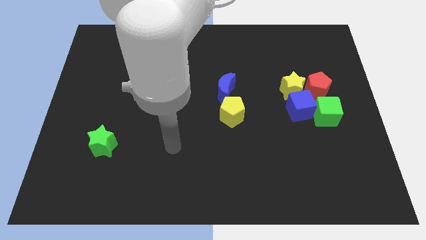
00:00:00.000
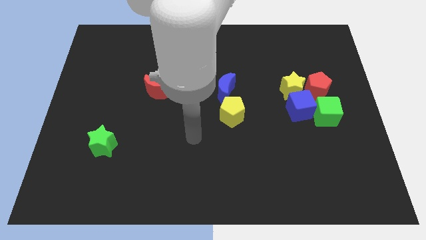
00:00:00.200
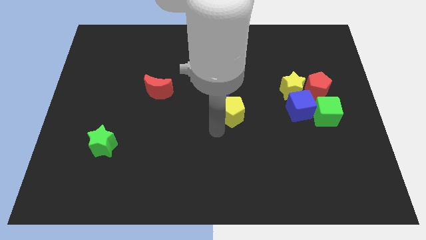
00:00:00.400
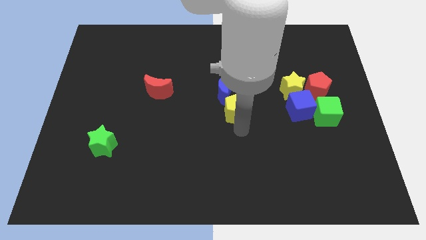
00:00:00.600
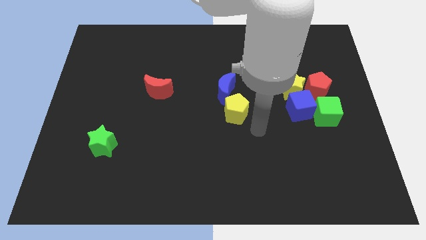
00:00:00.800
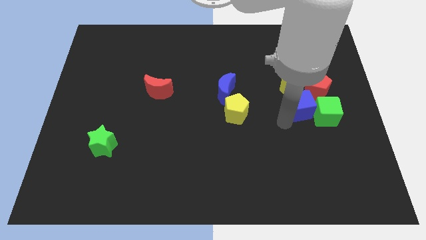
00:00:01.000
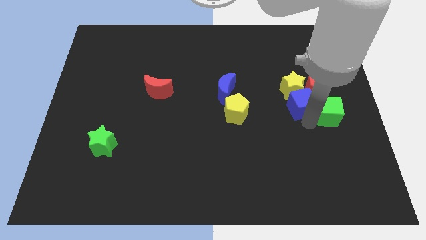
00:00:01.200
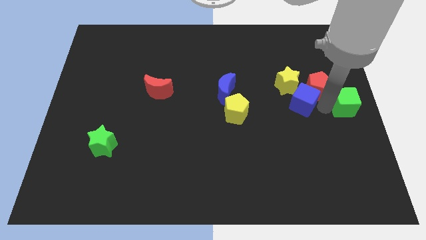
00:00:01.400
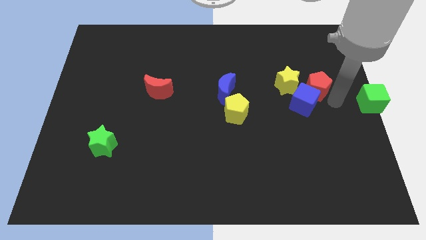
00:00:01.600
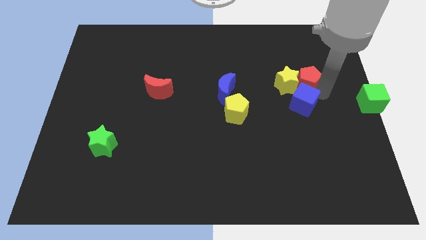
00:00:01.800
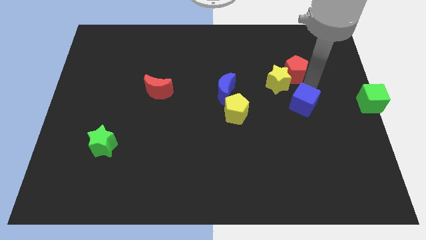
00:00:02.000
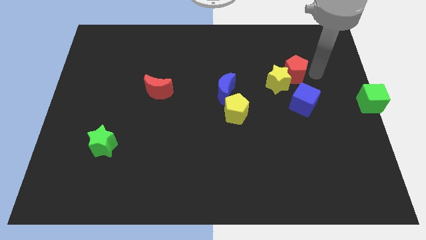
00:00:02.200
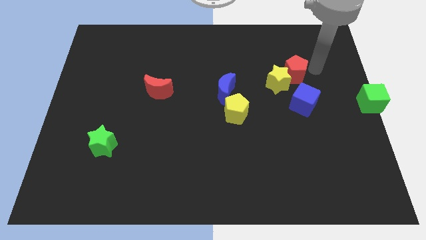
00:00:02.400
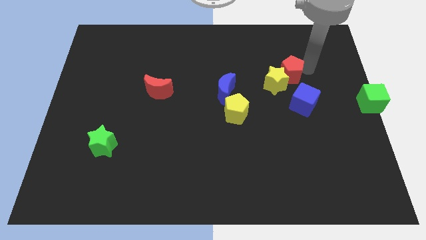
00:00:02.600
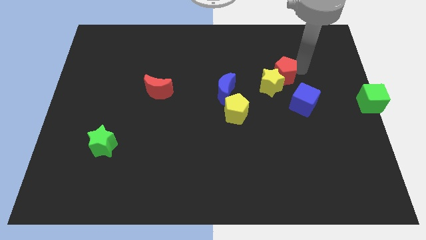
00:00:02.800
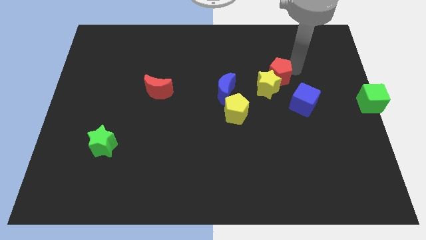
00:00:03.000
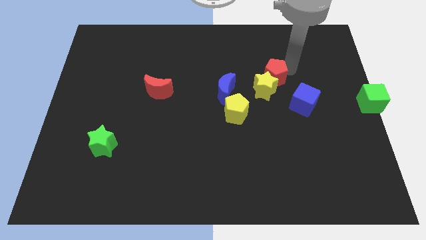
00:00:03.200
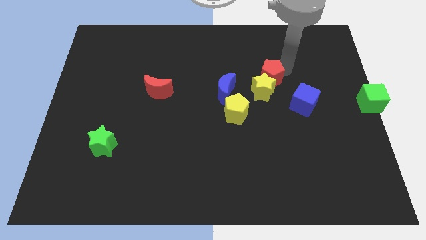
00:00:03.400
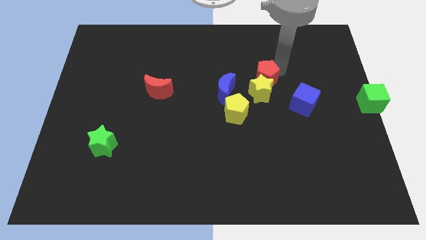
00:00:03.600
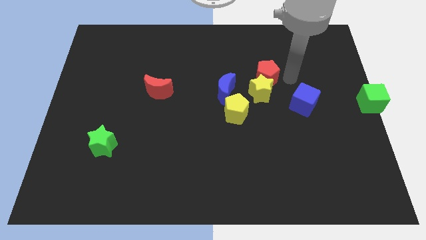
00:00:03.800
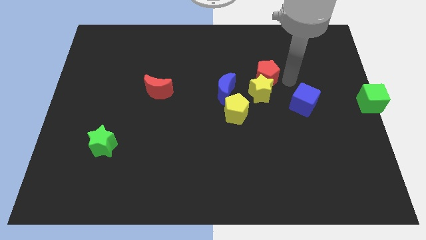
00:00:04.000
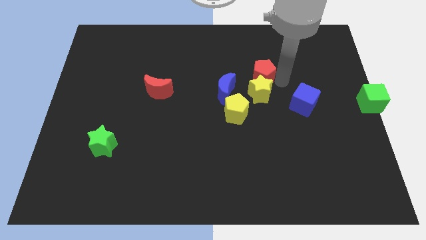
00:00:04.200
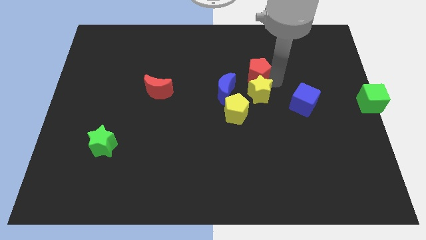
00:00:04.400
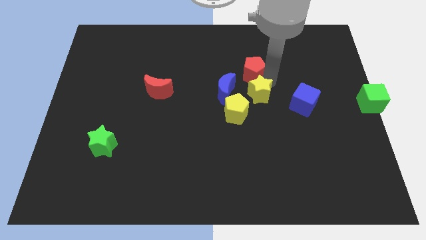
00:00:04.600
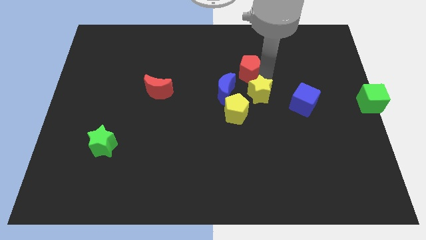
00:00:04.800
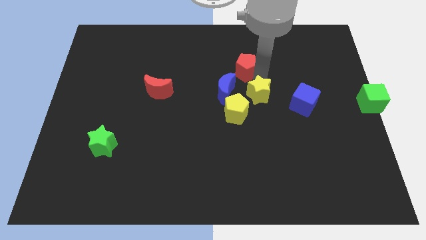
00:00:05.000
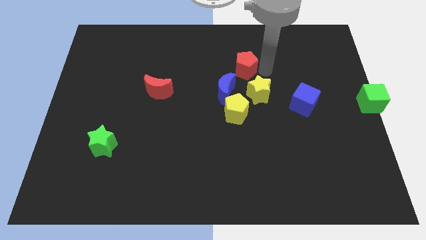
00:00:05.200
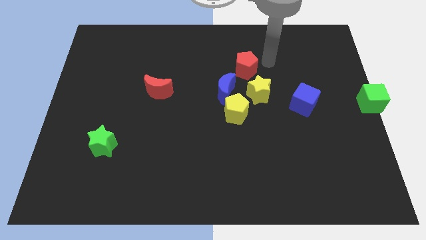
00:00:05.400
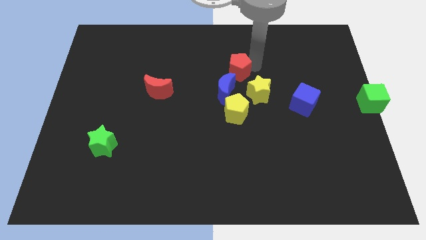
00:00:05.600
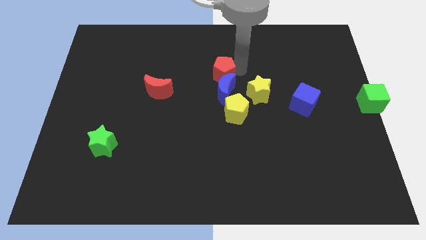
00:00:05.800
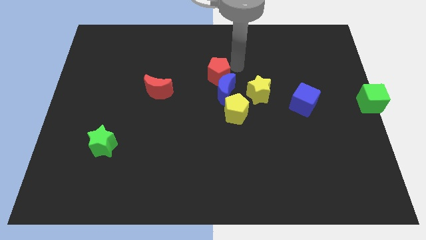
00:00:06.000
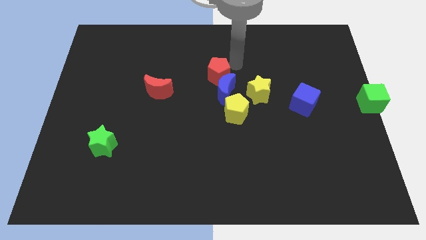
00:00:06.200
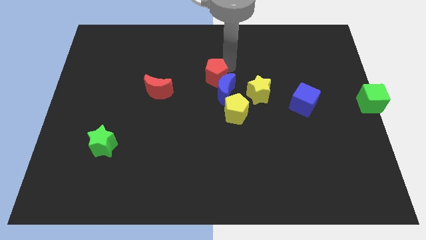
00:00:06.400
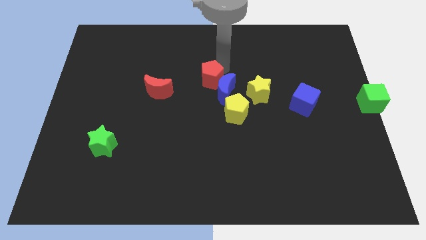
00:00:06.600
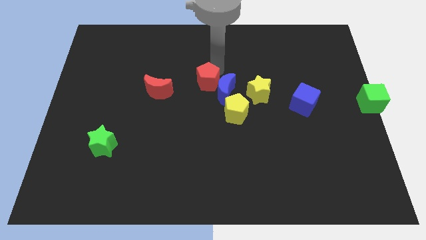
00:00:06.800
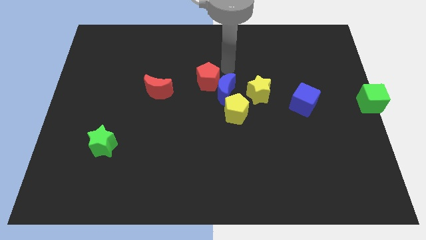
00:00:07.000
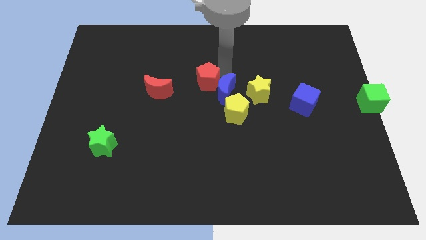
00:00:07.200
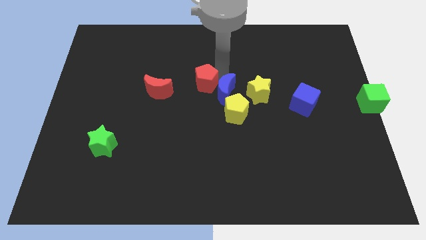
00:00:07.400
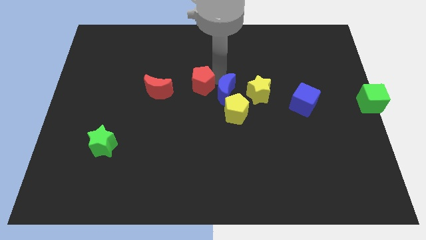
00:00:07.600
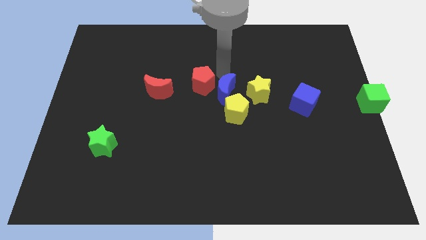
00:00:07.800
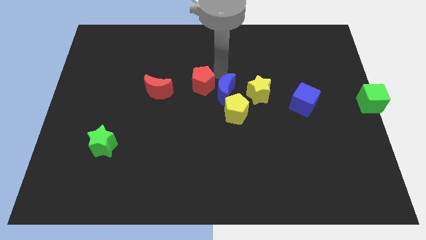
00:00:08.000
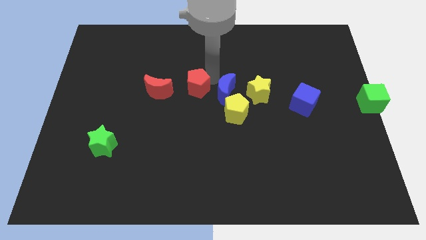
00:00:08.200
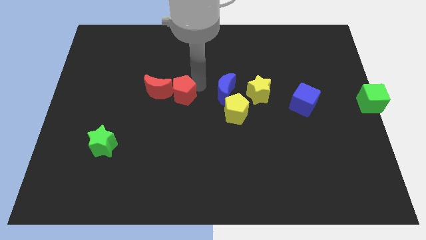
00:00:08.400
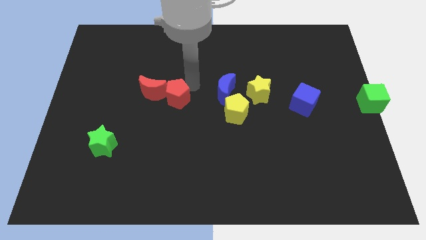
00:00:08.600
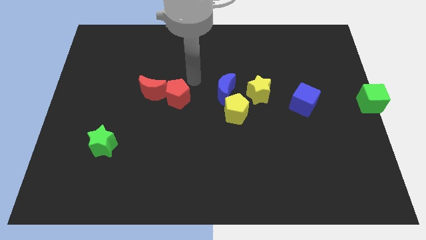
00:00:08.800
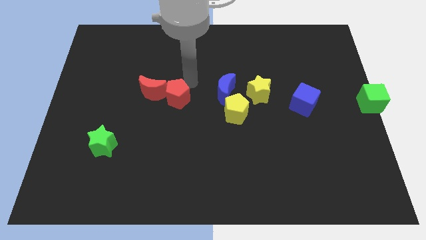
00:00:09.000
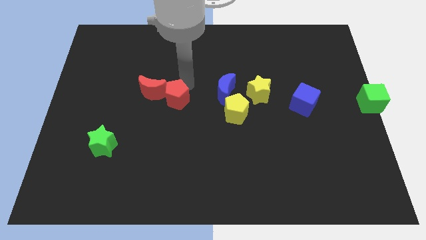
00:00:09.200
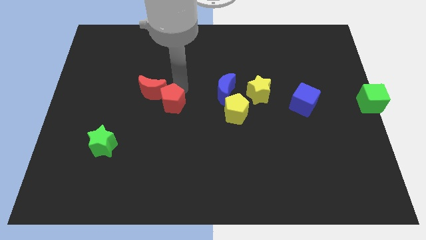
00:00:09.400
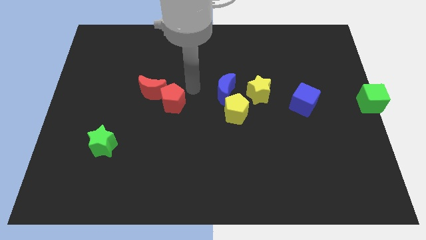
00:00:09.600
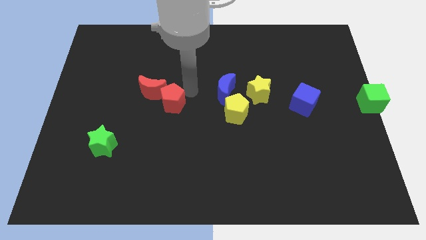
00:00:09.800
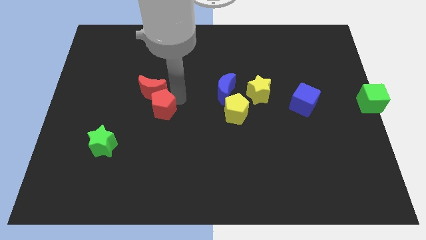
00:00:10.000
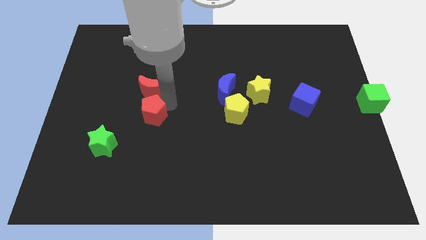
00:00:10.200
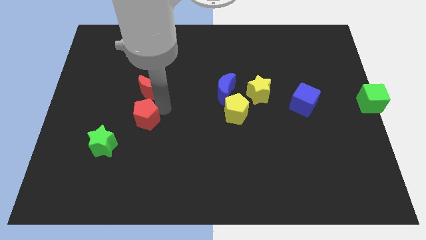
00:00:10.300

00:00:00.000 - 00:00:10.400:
slide the red pentagon diagonally up and to the right of the green star

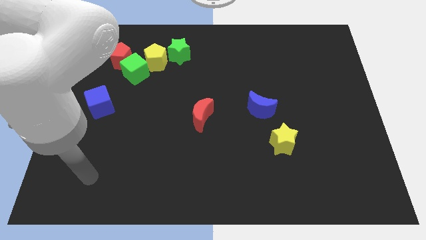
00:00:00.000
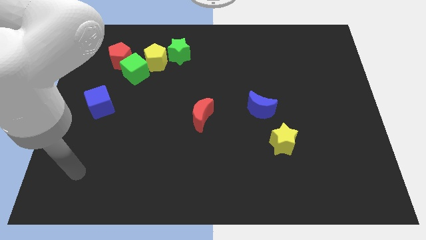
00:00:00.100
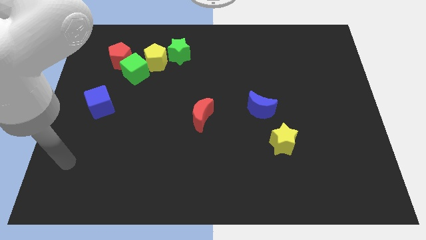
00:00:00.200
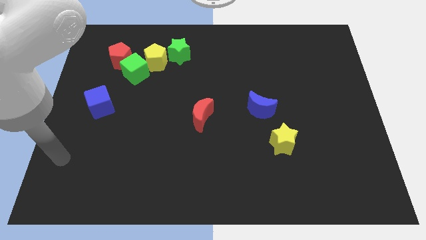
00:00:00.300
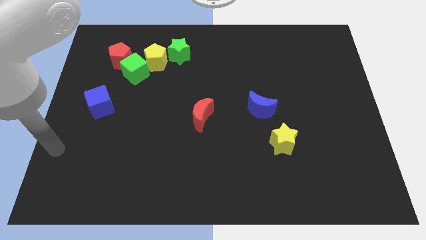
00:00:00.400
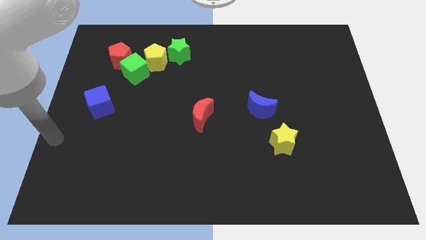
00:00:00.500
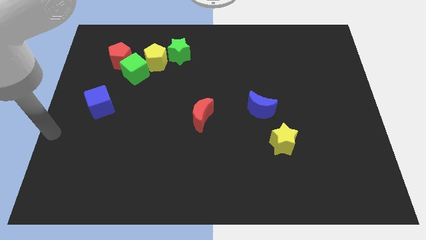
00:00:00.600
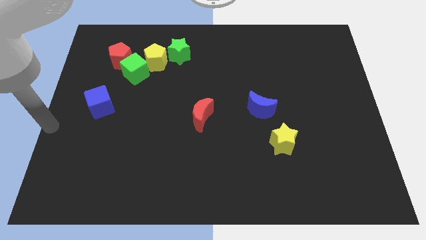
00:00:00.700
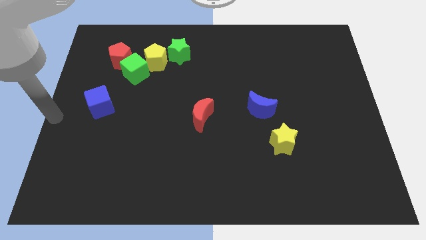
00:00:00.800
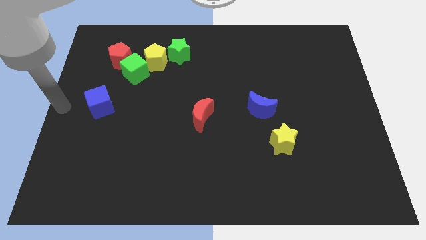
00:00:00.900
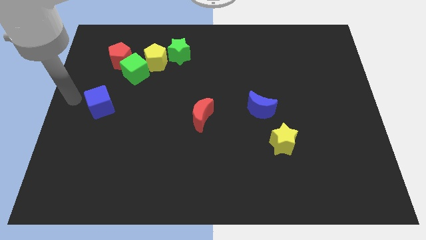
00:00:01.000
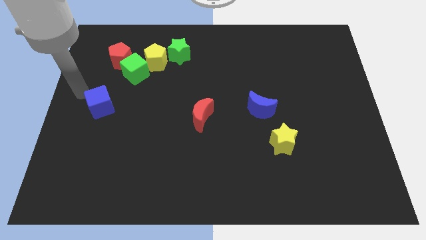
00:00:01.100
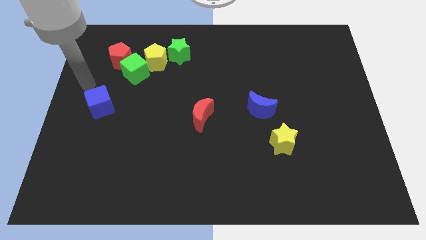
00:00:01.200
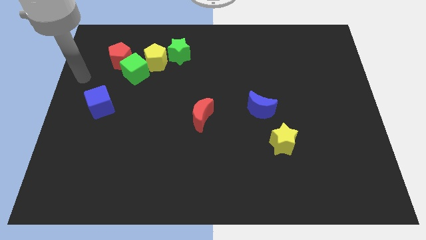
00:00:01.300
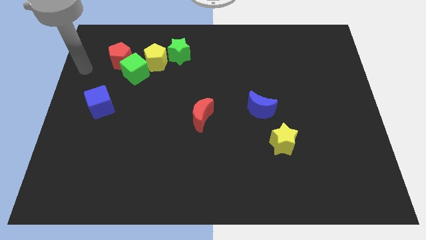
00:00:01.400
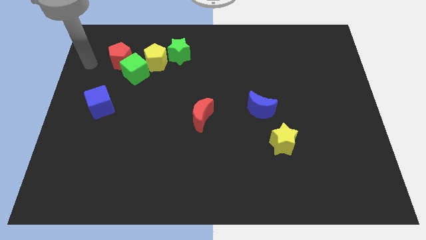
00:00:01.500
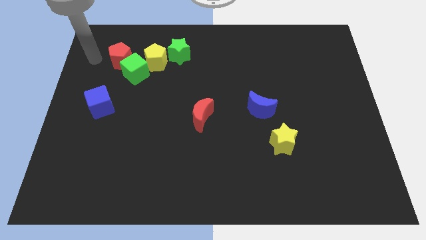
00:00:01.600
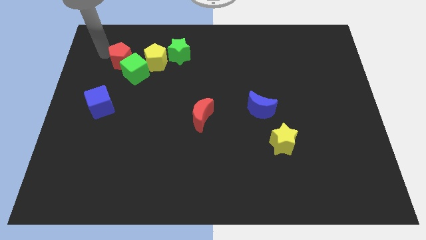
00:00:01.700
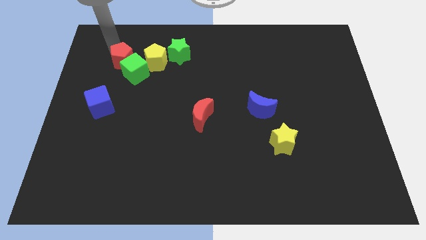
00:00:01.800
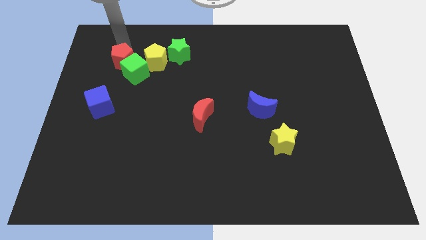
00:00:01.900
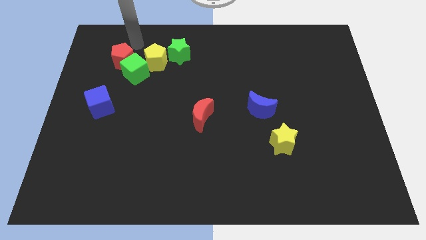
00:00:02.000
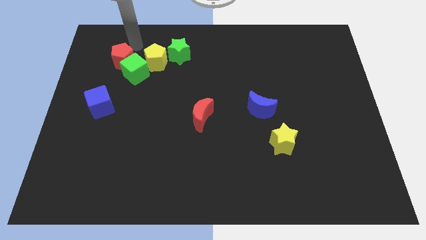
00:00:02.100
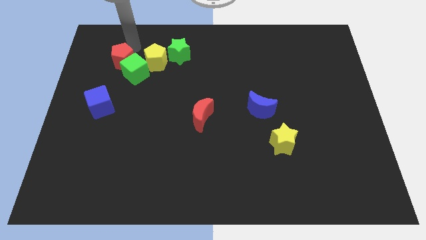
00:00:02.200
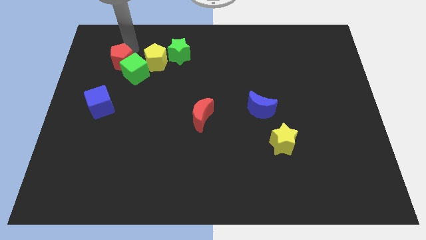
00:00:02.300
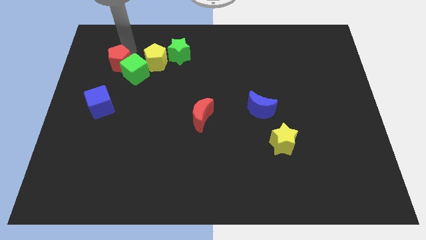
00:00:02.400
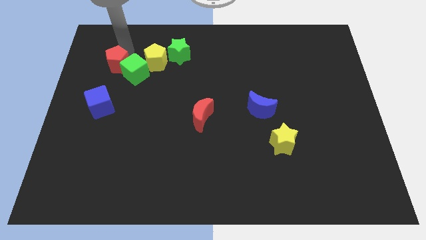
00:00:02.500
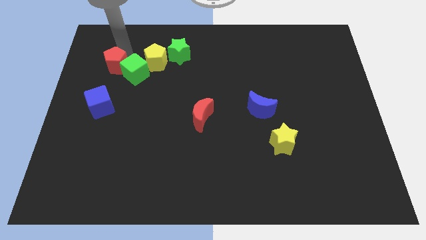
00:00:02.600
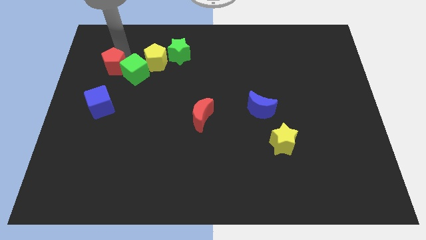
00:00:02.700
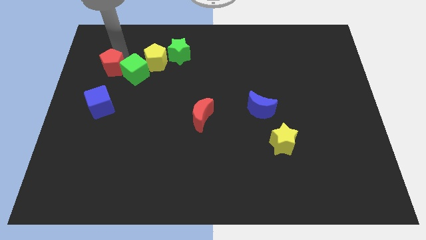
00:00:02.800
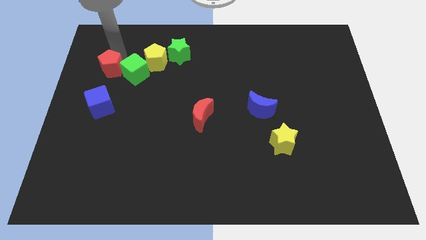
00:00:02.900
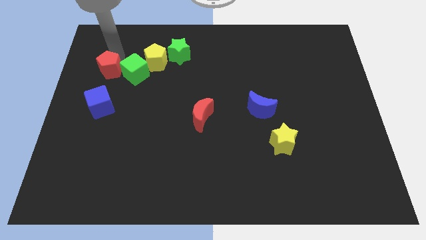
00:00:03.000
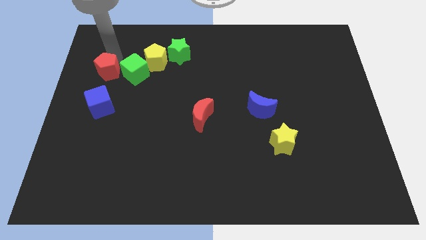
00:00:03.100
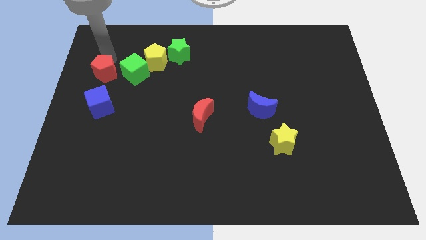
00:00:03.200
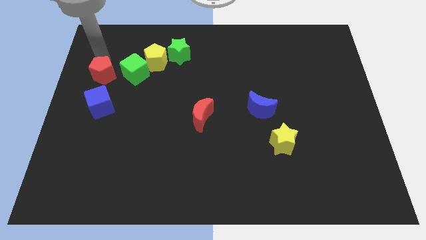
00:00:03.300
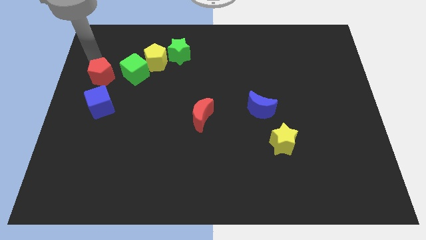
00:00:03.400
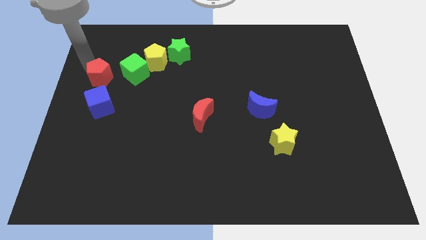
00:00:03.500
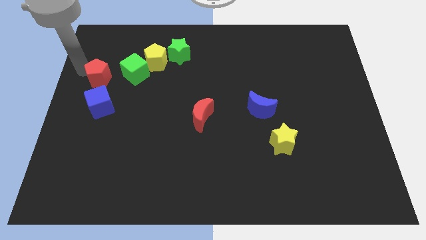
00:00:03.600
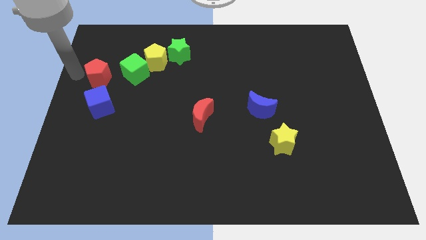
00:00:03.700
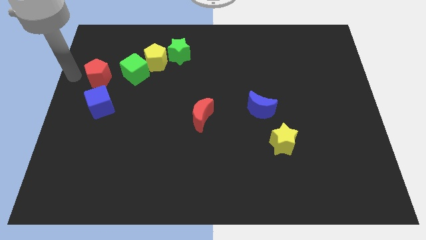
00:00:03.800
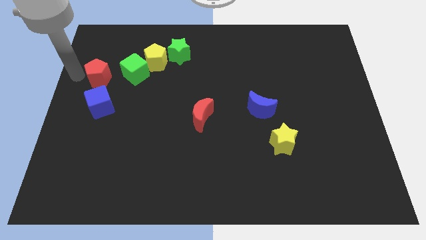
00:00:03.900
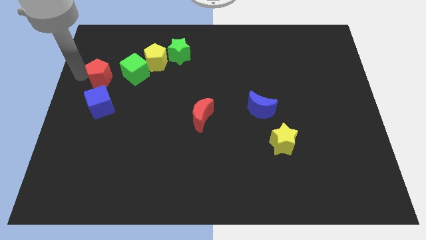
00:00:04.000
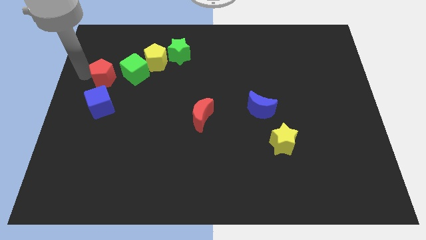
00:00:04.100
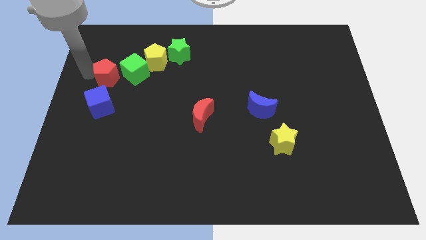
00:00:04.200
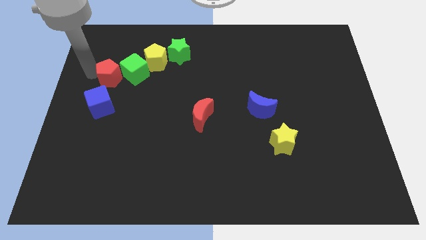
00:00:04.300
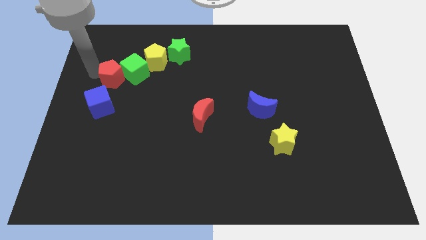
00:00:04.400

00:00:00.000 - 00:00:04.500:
push the red pentagon to the bottom left side of the yellow pentagon
